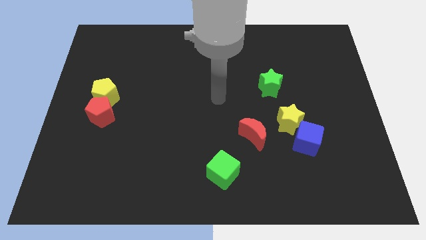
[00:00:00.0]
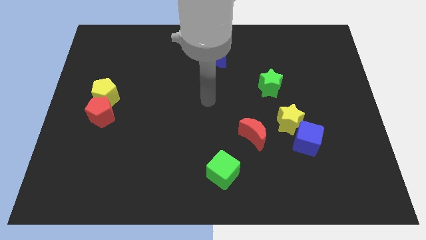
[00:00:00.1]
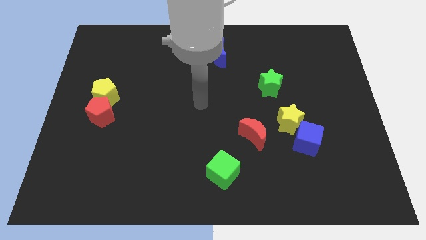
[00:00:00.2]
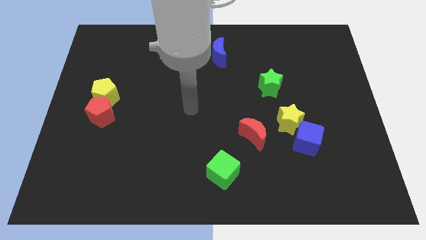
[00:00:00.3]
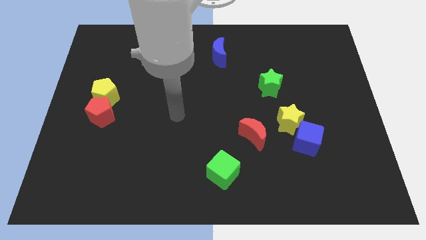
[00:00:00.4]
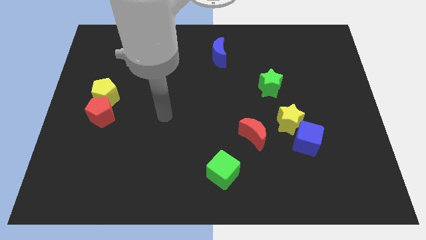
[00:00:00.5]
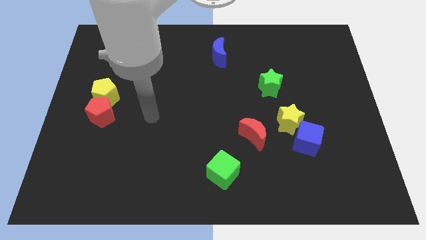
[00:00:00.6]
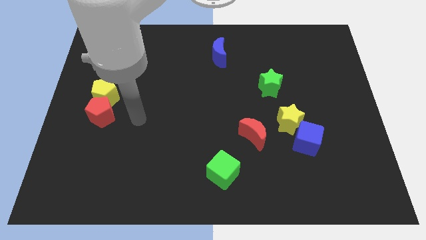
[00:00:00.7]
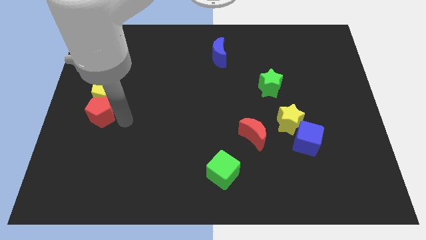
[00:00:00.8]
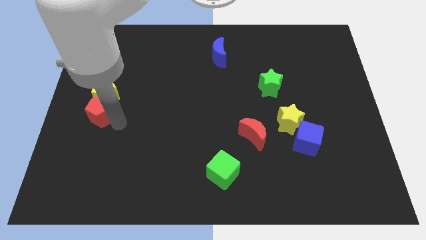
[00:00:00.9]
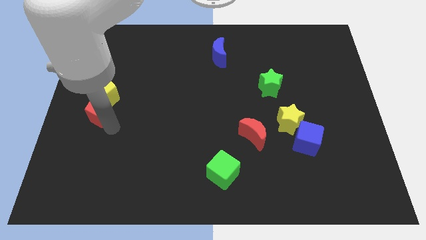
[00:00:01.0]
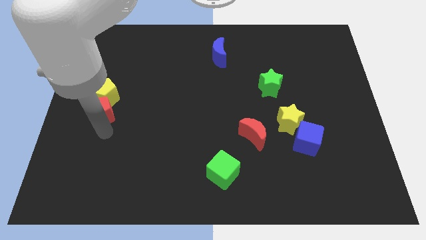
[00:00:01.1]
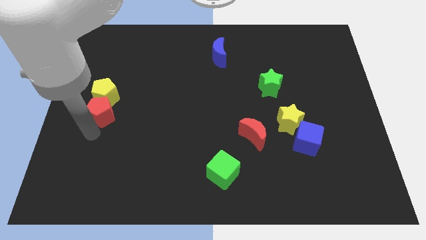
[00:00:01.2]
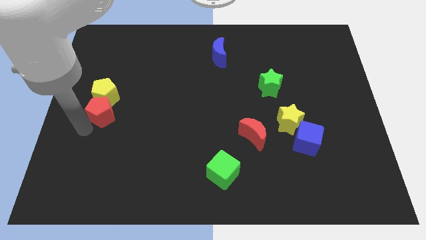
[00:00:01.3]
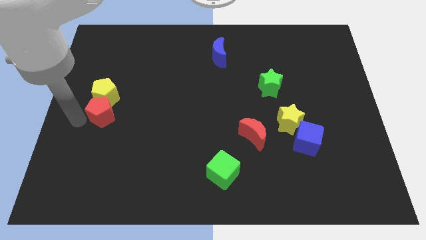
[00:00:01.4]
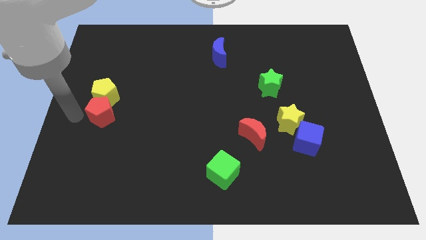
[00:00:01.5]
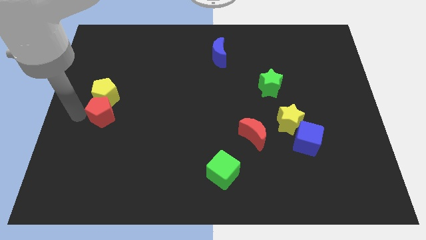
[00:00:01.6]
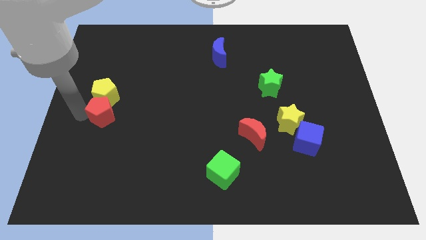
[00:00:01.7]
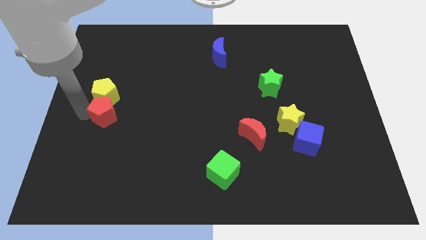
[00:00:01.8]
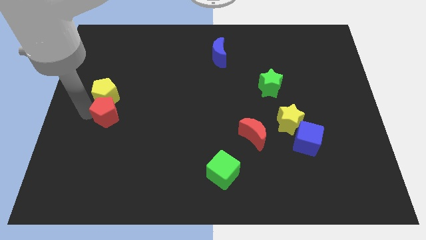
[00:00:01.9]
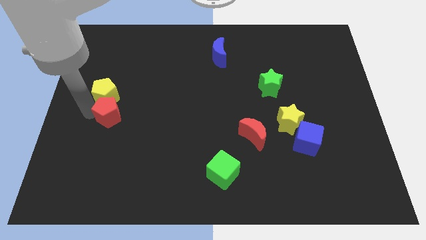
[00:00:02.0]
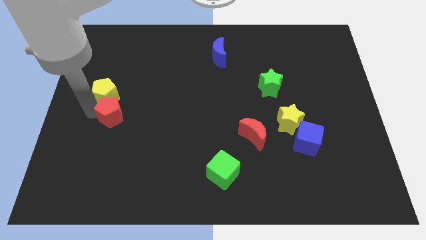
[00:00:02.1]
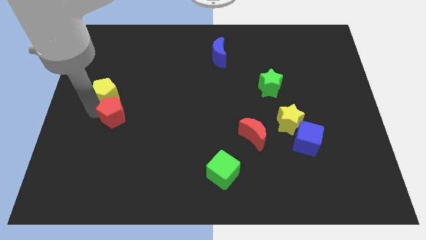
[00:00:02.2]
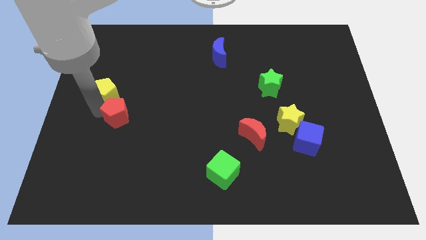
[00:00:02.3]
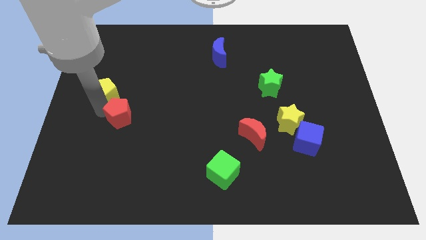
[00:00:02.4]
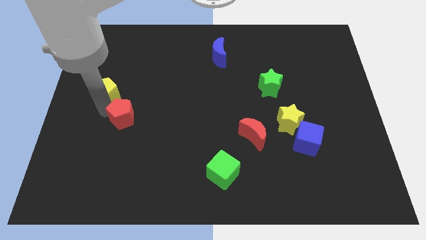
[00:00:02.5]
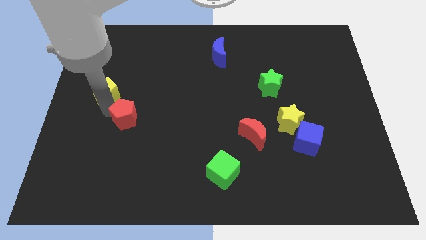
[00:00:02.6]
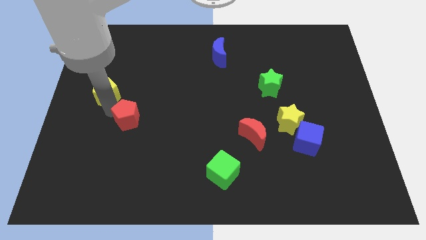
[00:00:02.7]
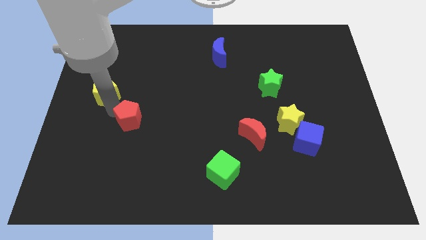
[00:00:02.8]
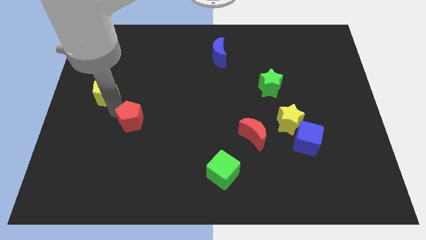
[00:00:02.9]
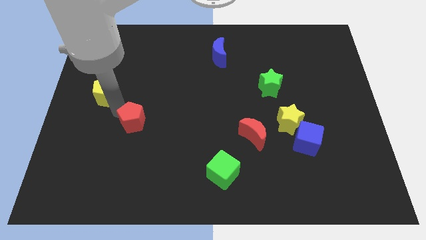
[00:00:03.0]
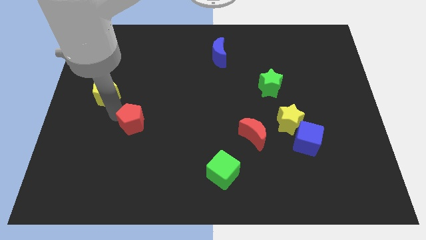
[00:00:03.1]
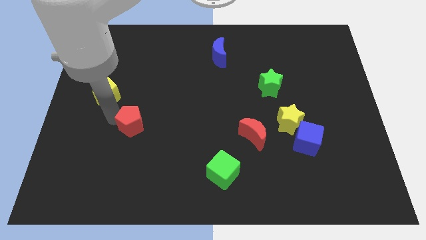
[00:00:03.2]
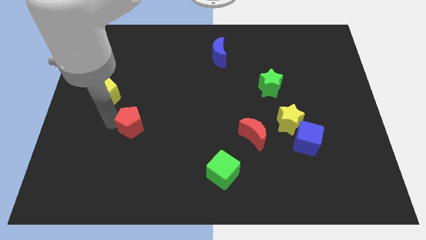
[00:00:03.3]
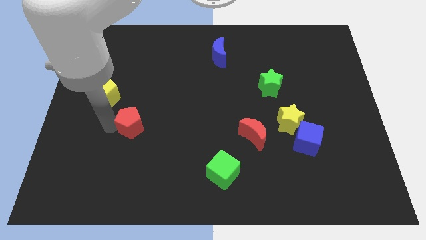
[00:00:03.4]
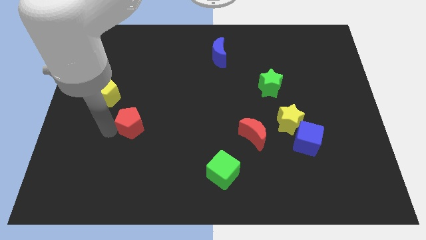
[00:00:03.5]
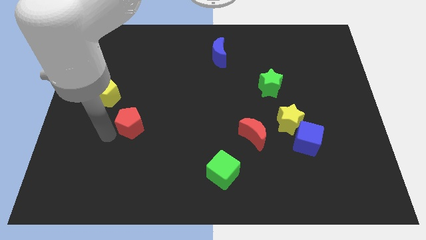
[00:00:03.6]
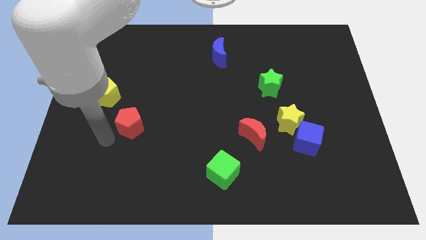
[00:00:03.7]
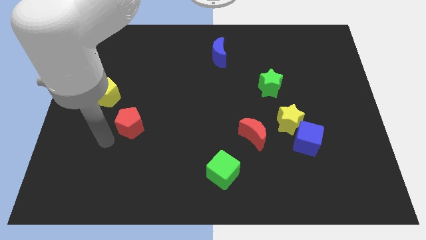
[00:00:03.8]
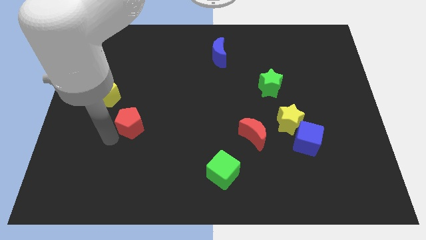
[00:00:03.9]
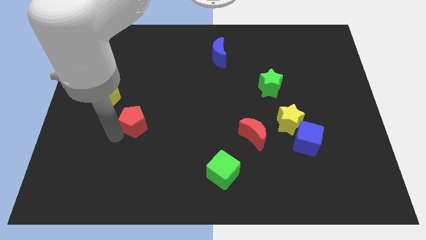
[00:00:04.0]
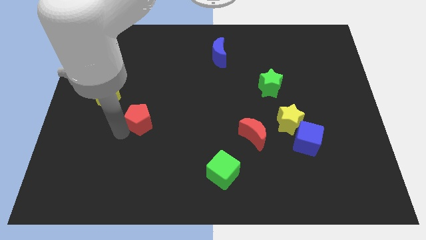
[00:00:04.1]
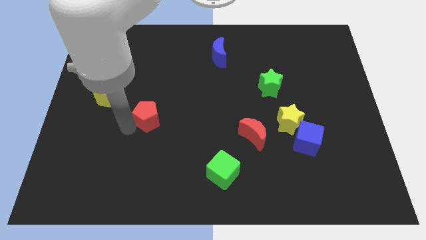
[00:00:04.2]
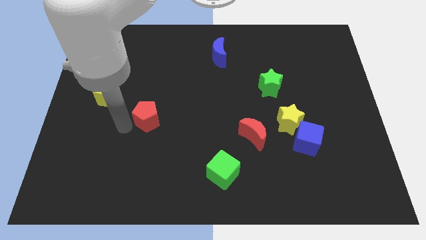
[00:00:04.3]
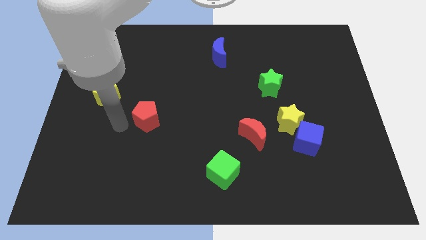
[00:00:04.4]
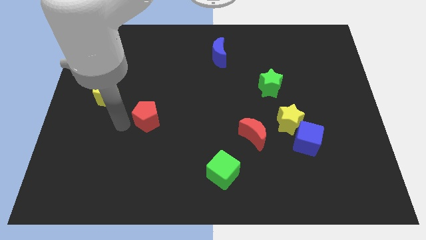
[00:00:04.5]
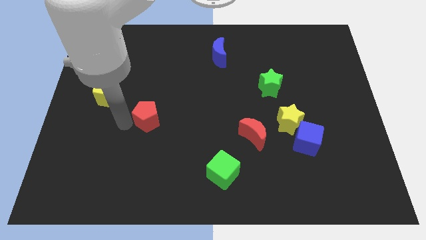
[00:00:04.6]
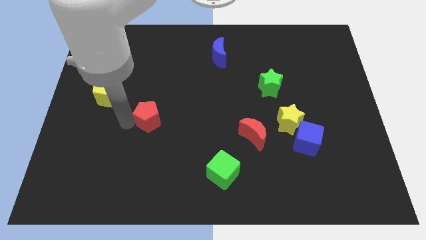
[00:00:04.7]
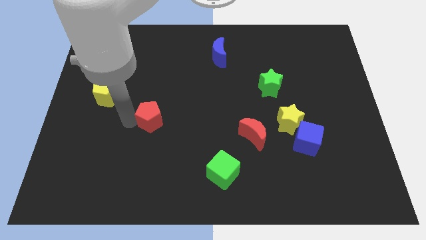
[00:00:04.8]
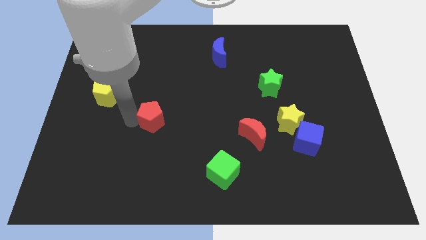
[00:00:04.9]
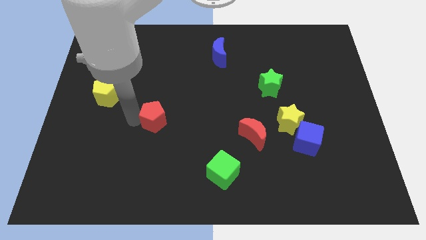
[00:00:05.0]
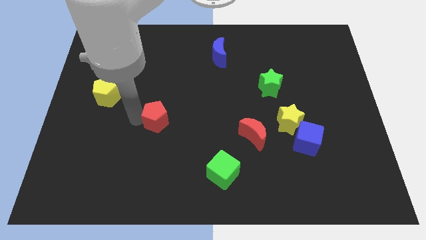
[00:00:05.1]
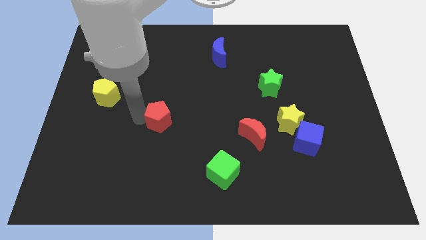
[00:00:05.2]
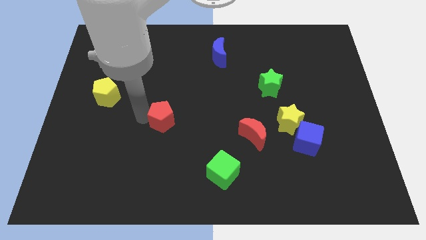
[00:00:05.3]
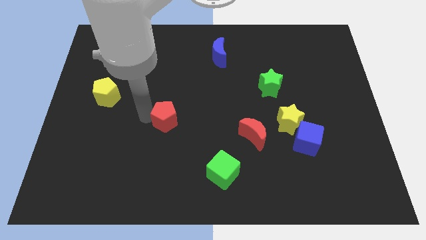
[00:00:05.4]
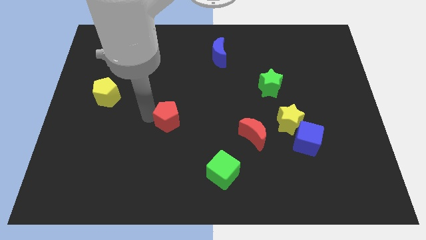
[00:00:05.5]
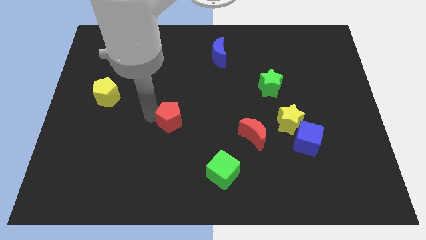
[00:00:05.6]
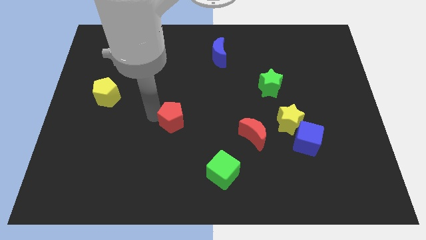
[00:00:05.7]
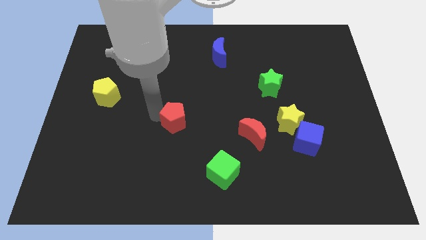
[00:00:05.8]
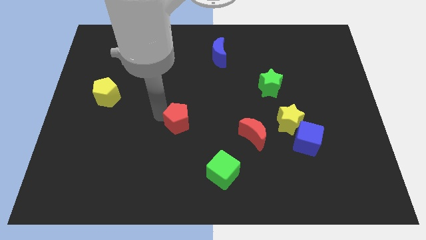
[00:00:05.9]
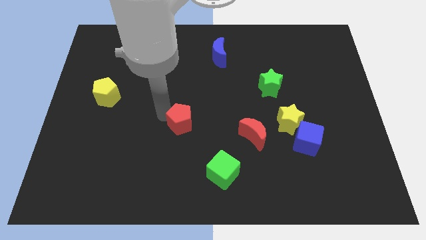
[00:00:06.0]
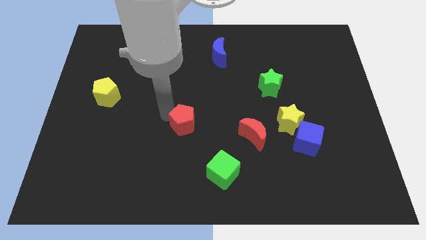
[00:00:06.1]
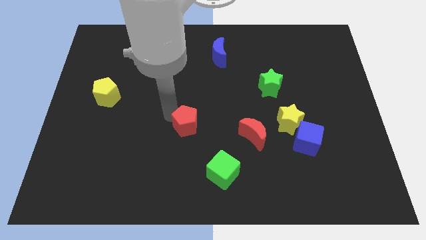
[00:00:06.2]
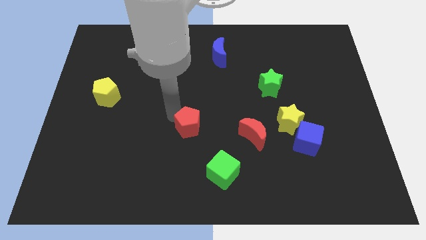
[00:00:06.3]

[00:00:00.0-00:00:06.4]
slide the red pentagon right

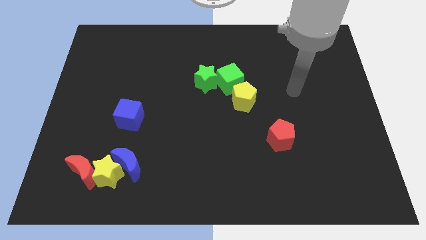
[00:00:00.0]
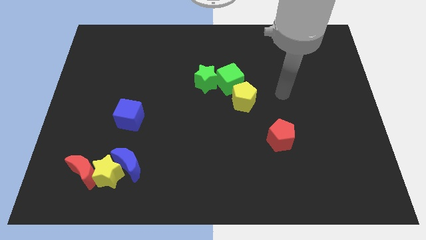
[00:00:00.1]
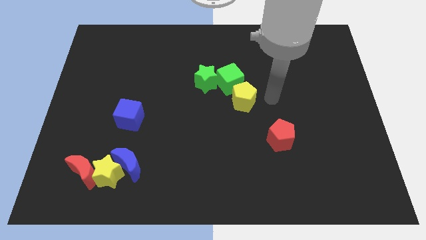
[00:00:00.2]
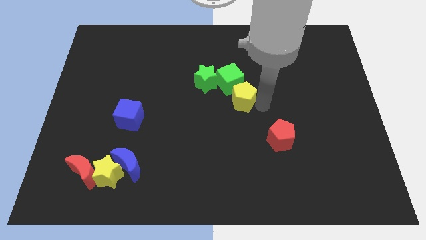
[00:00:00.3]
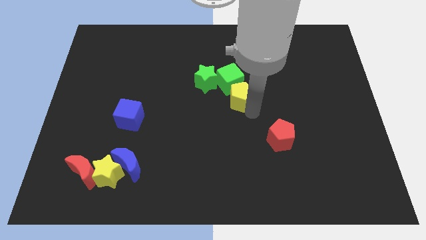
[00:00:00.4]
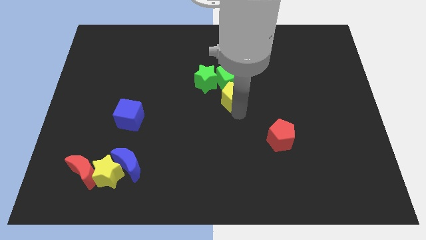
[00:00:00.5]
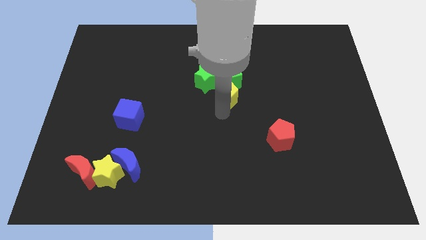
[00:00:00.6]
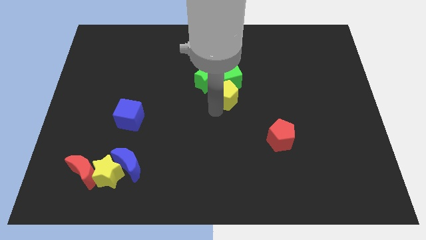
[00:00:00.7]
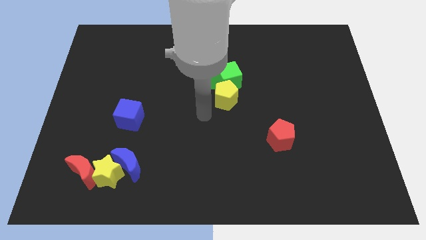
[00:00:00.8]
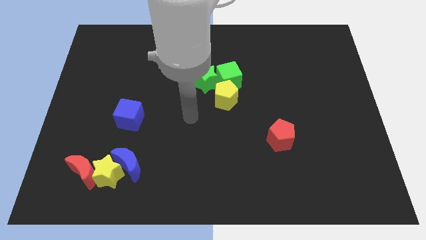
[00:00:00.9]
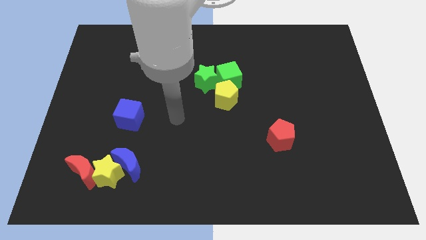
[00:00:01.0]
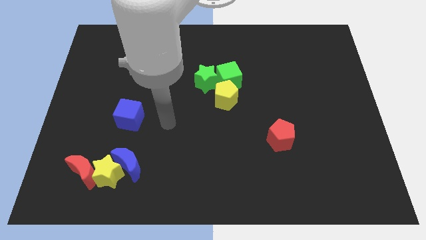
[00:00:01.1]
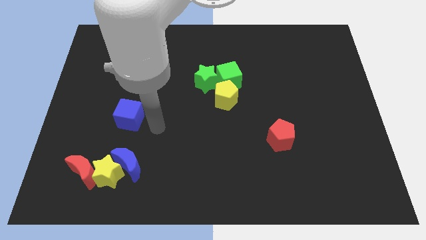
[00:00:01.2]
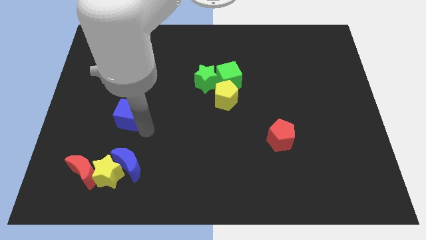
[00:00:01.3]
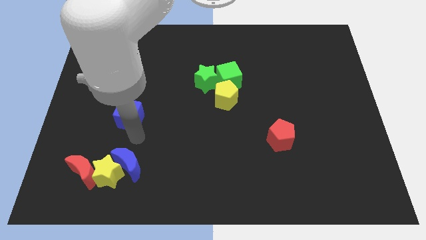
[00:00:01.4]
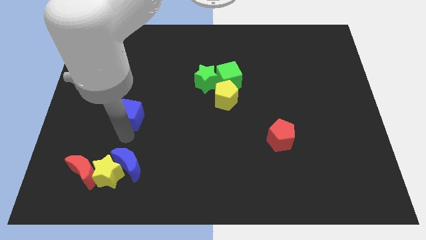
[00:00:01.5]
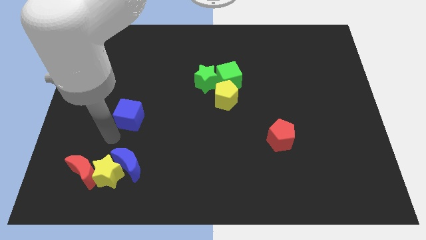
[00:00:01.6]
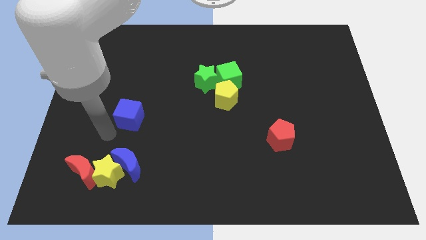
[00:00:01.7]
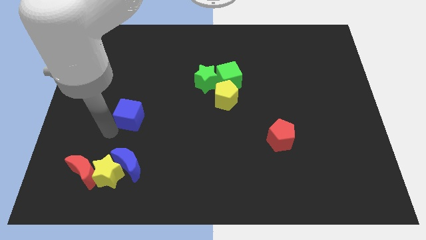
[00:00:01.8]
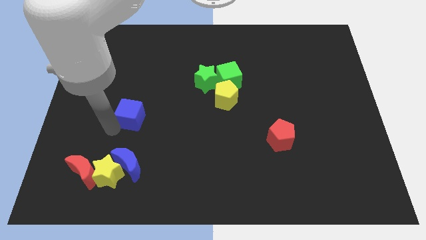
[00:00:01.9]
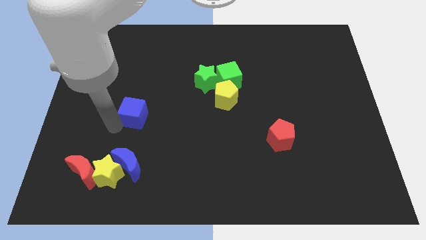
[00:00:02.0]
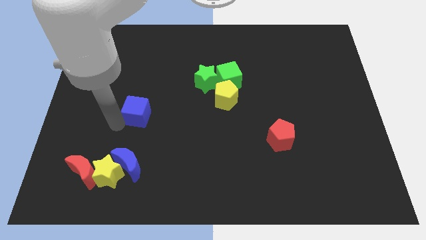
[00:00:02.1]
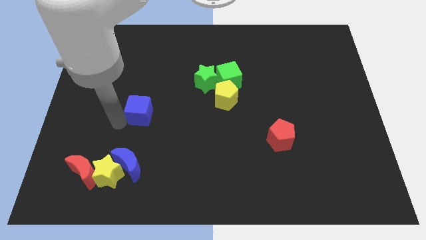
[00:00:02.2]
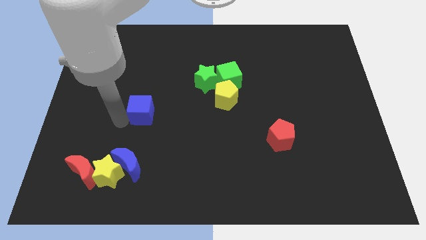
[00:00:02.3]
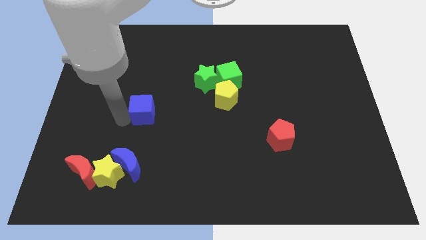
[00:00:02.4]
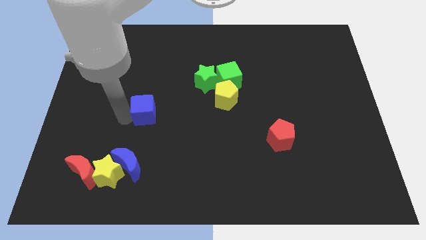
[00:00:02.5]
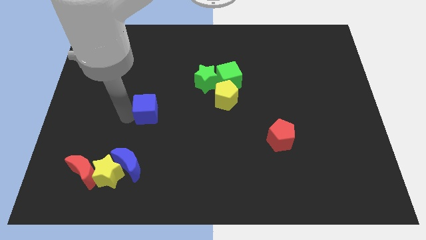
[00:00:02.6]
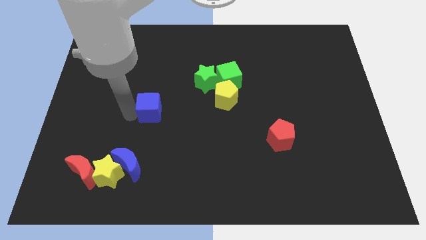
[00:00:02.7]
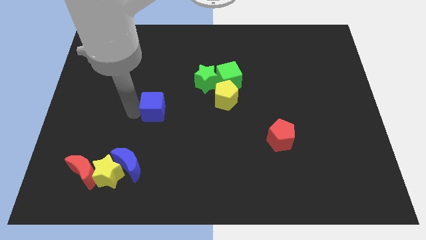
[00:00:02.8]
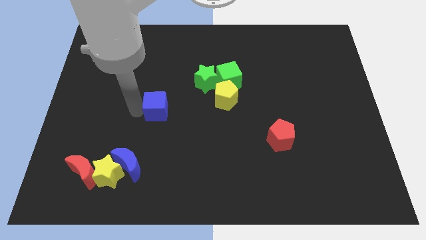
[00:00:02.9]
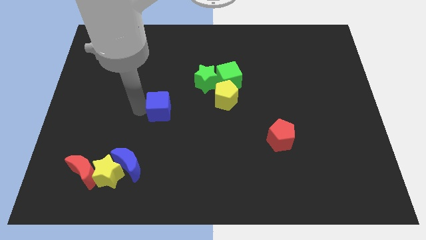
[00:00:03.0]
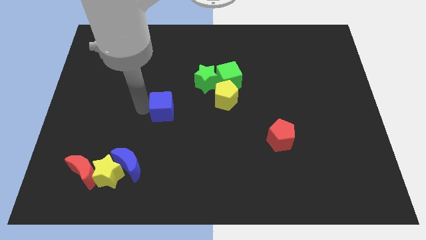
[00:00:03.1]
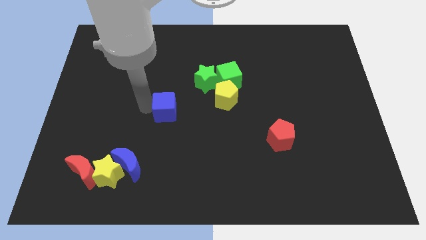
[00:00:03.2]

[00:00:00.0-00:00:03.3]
slightly slide the blue cube upwards and right diagonally
